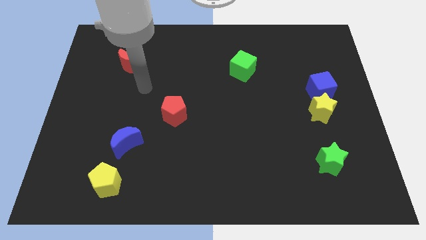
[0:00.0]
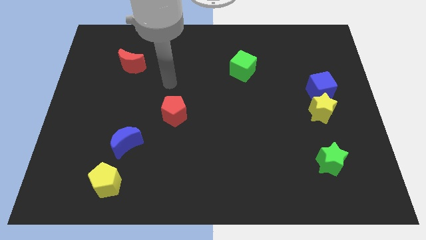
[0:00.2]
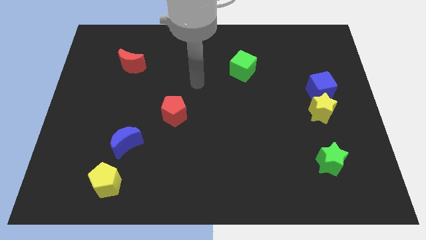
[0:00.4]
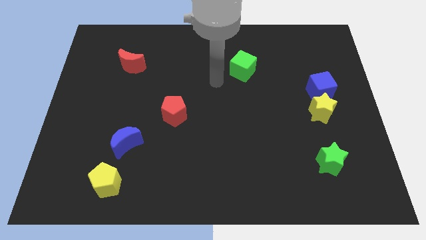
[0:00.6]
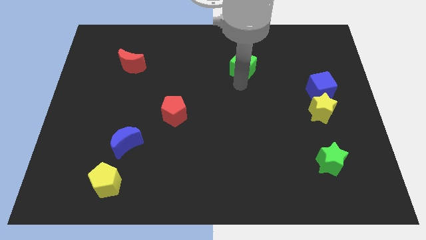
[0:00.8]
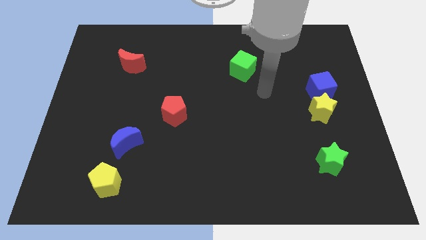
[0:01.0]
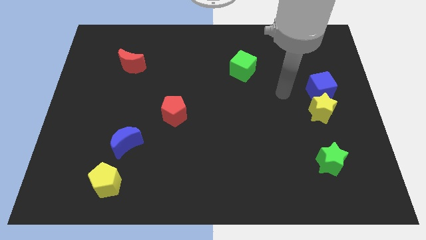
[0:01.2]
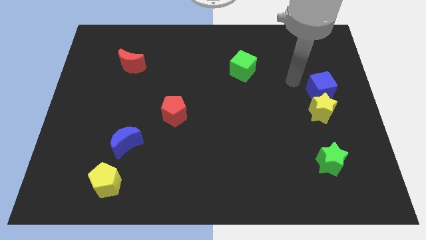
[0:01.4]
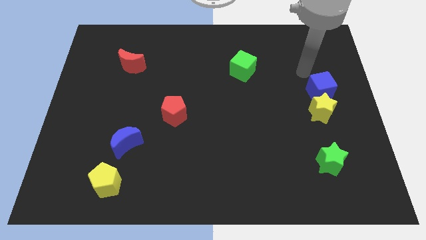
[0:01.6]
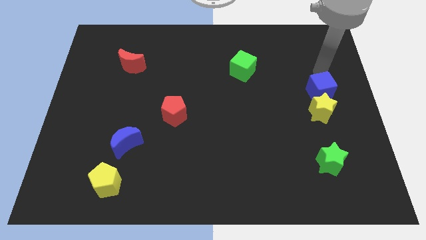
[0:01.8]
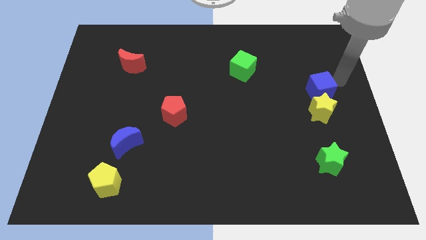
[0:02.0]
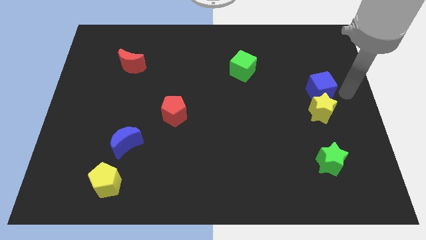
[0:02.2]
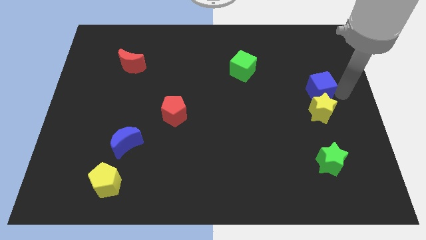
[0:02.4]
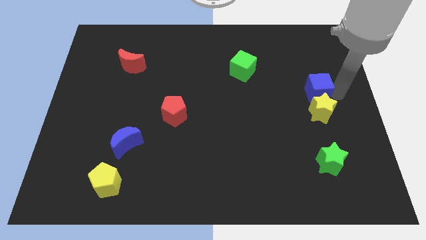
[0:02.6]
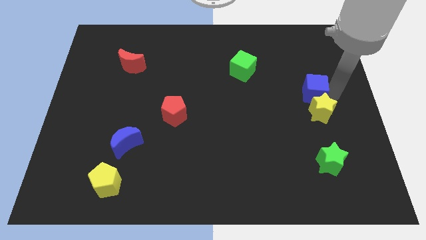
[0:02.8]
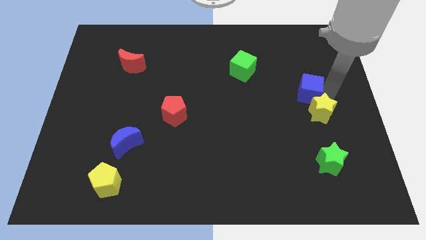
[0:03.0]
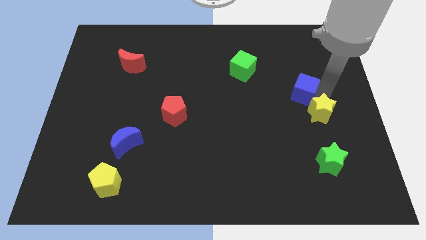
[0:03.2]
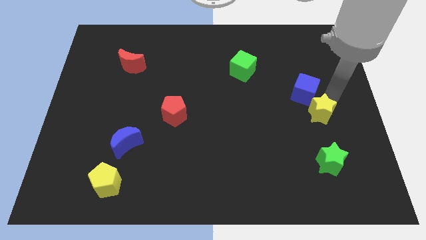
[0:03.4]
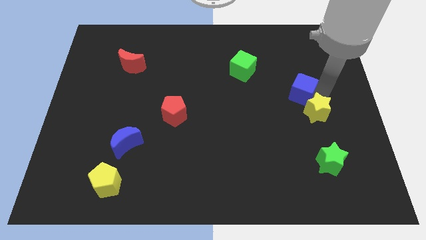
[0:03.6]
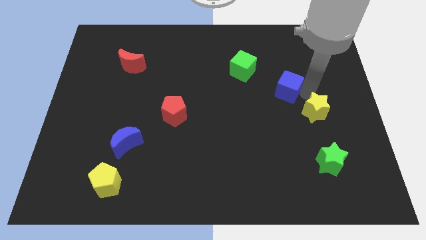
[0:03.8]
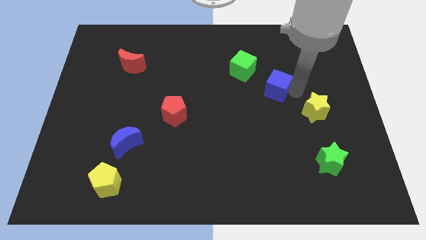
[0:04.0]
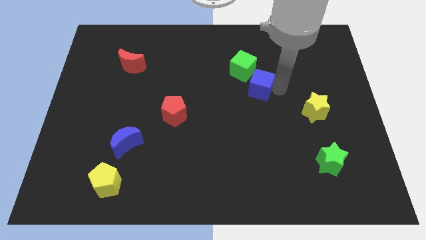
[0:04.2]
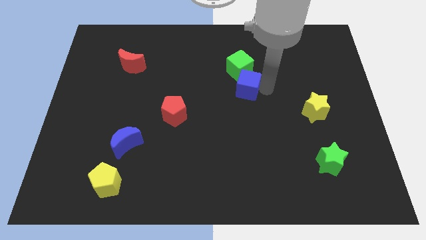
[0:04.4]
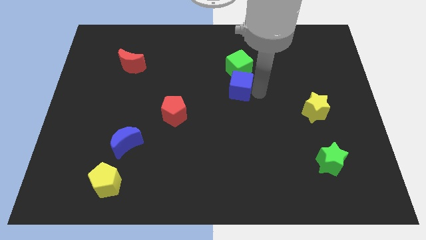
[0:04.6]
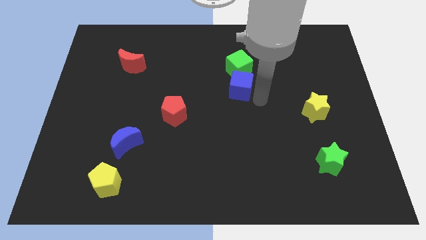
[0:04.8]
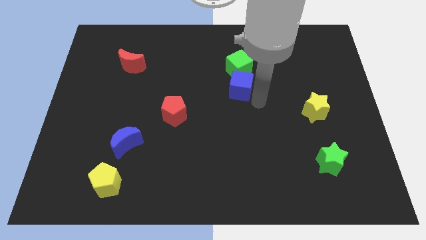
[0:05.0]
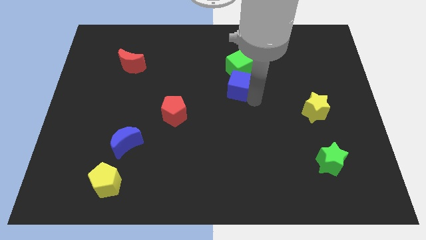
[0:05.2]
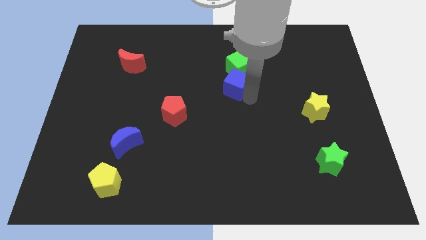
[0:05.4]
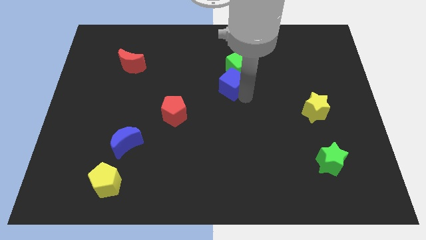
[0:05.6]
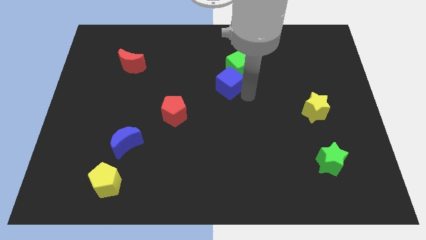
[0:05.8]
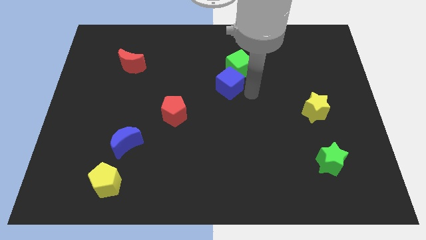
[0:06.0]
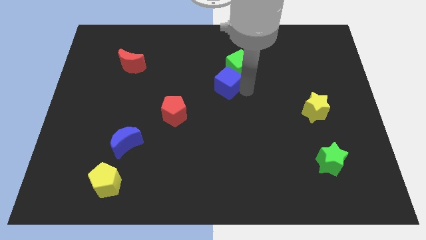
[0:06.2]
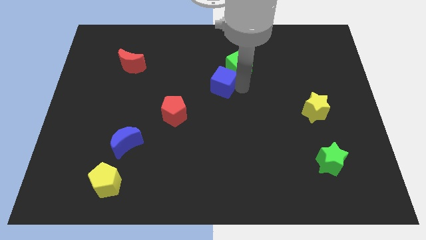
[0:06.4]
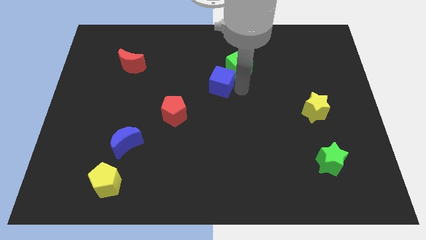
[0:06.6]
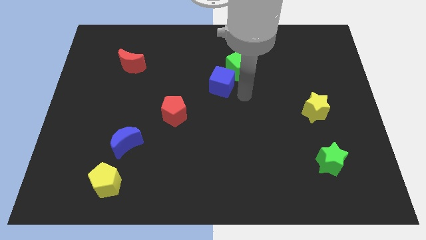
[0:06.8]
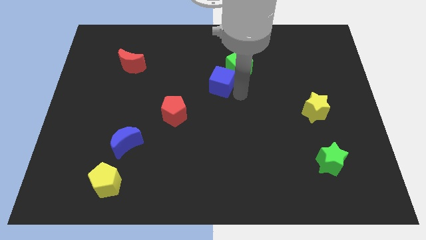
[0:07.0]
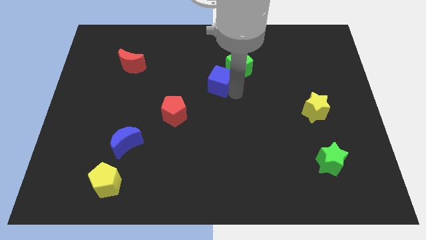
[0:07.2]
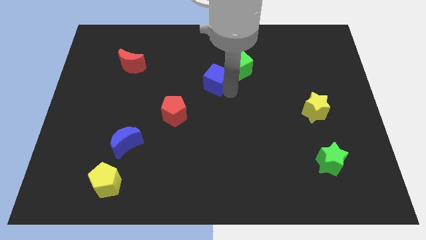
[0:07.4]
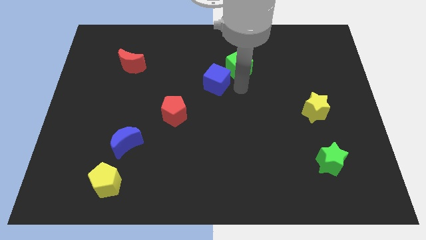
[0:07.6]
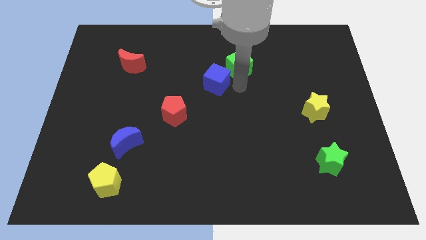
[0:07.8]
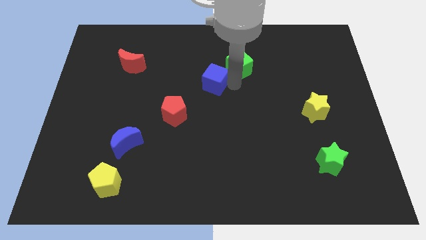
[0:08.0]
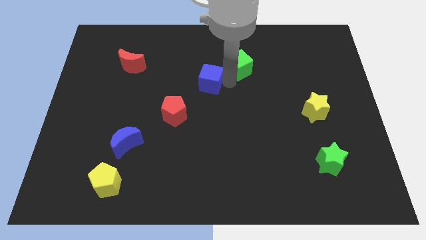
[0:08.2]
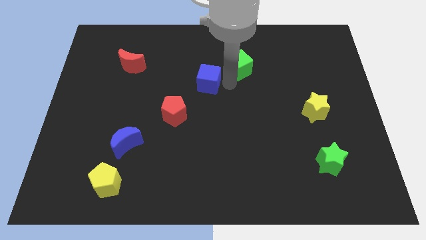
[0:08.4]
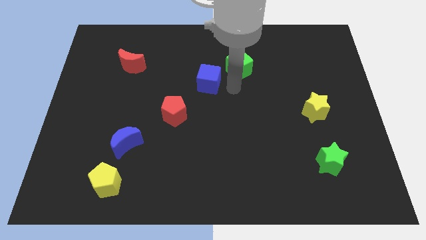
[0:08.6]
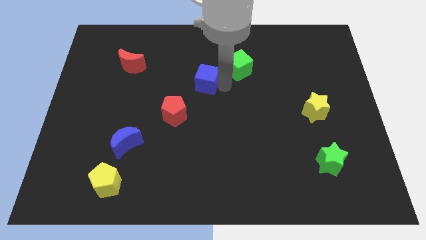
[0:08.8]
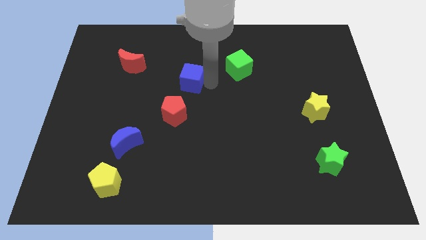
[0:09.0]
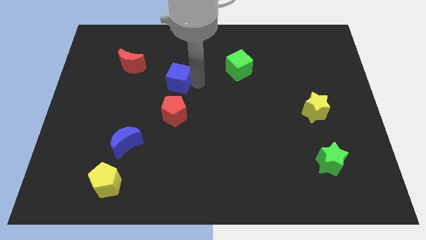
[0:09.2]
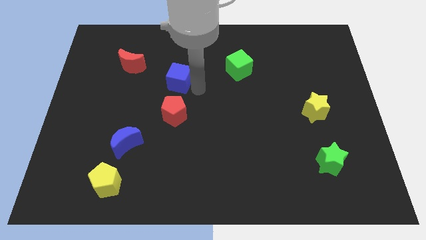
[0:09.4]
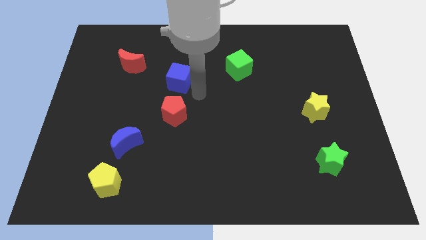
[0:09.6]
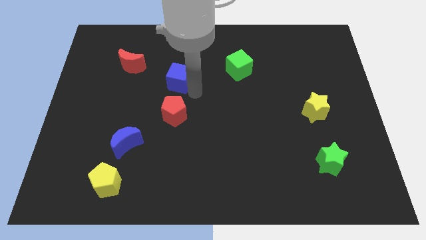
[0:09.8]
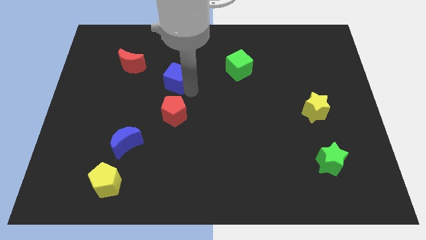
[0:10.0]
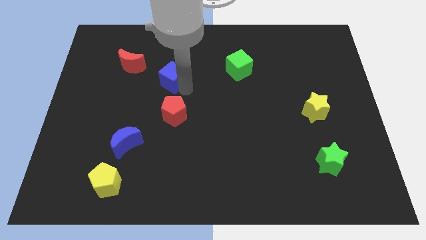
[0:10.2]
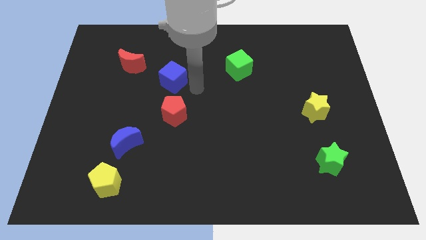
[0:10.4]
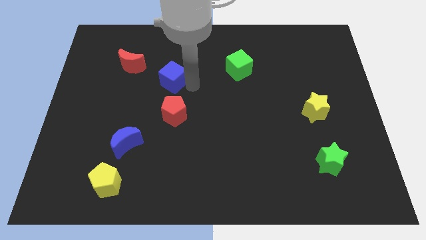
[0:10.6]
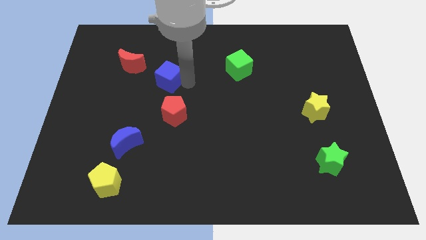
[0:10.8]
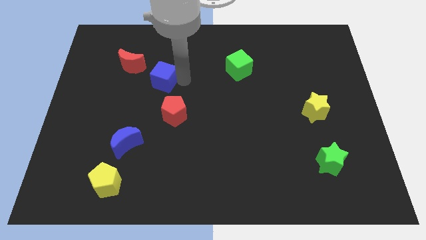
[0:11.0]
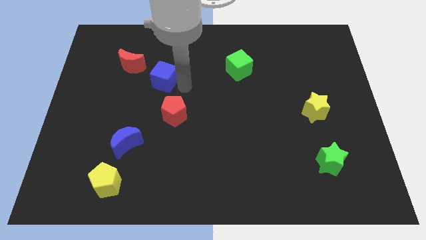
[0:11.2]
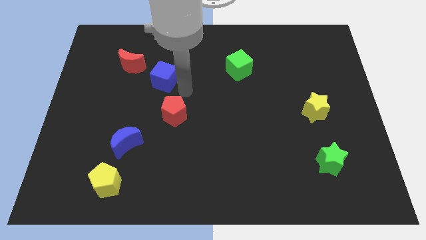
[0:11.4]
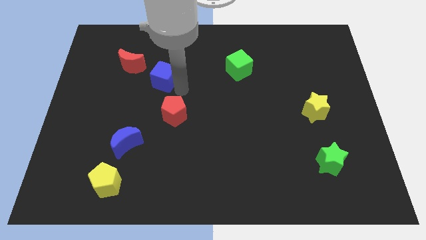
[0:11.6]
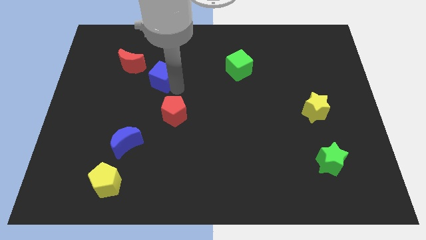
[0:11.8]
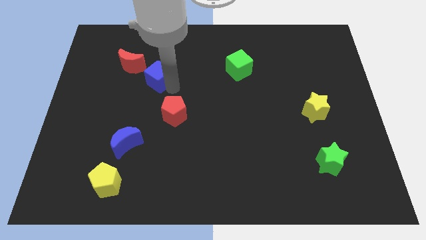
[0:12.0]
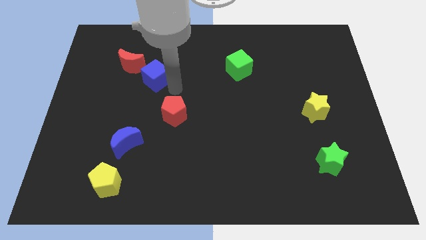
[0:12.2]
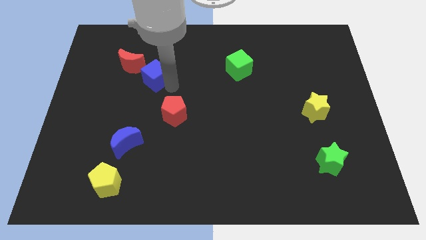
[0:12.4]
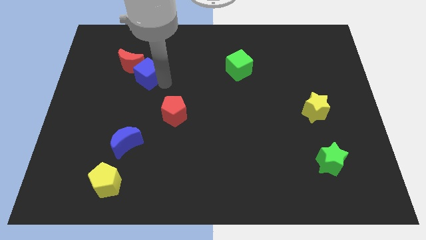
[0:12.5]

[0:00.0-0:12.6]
move the blue cube towards the red moon

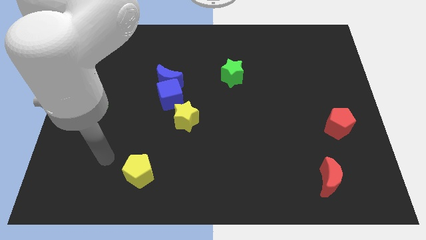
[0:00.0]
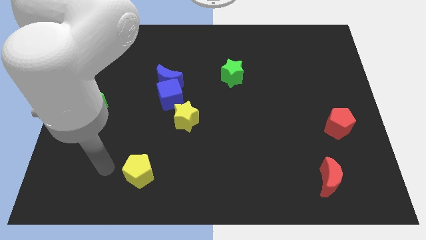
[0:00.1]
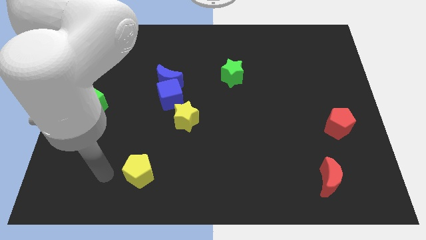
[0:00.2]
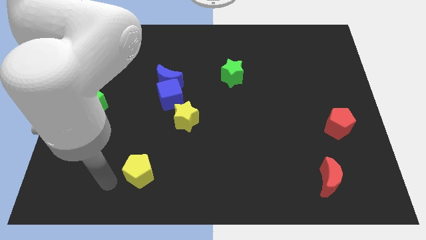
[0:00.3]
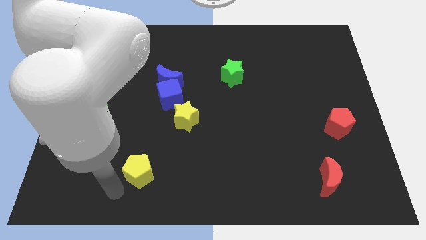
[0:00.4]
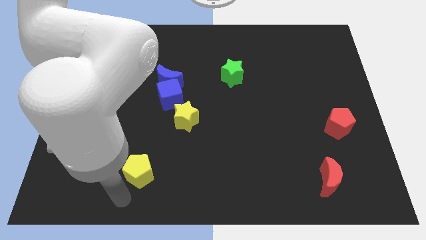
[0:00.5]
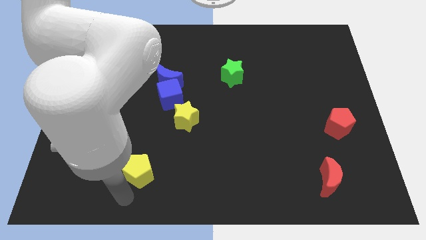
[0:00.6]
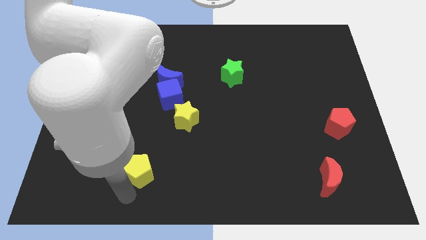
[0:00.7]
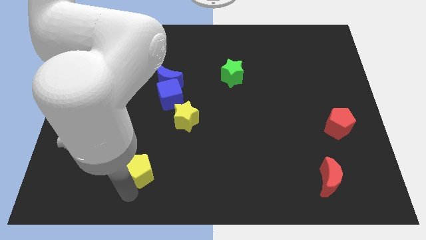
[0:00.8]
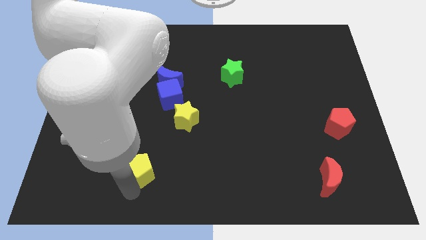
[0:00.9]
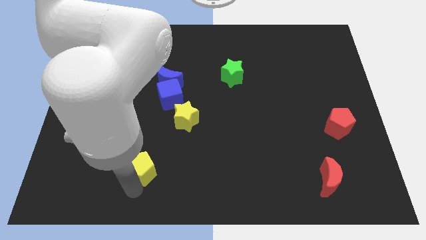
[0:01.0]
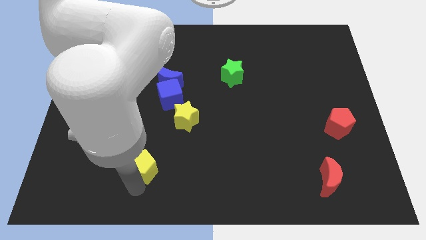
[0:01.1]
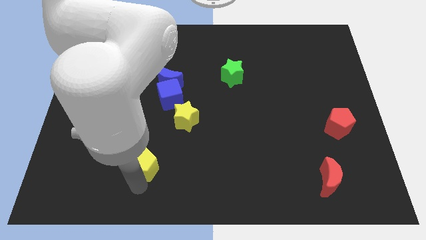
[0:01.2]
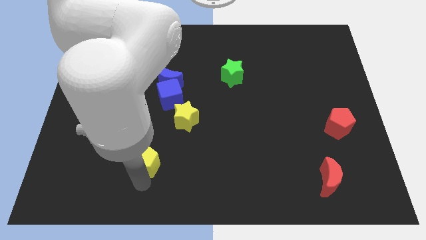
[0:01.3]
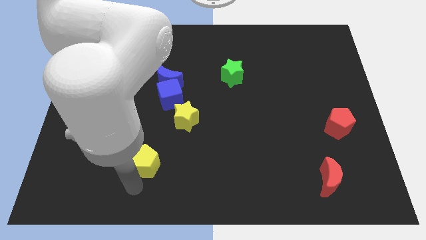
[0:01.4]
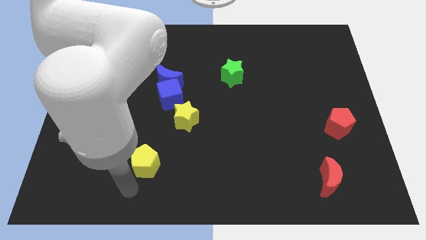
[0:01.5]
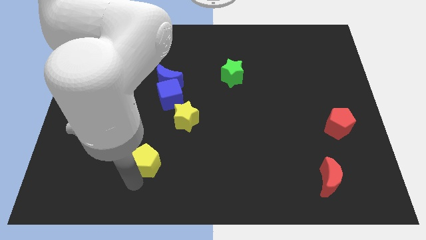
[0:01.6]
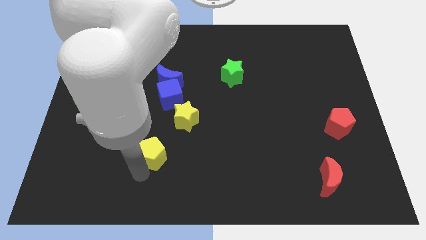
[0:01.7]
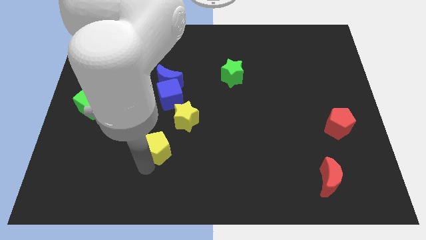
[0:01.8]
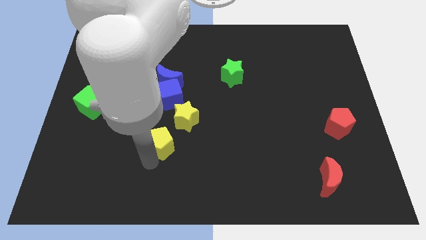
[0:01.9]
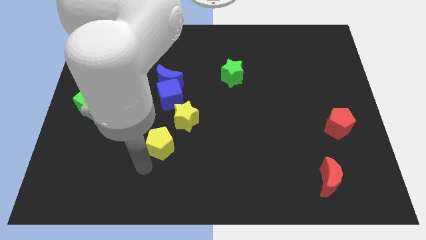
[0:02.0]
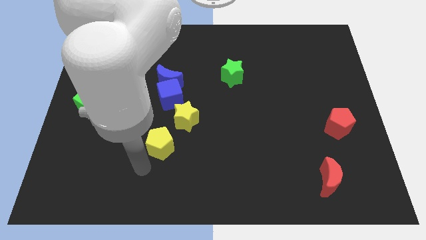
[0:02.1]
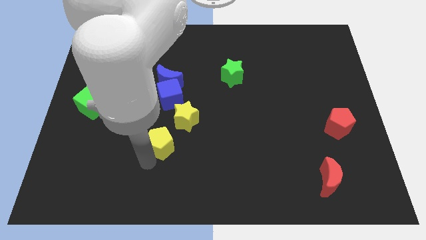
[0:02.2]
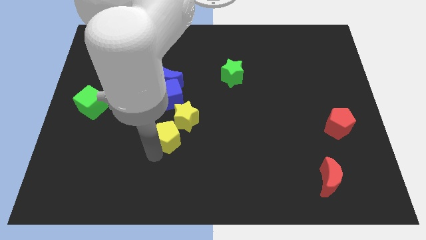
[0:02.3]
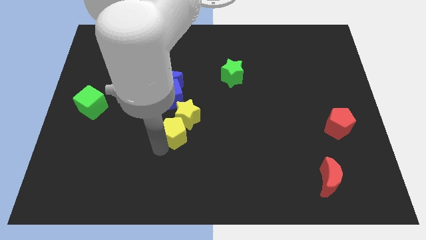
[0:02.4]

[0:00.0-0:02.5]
put the yellow pentagon to the yellow star
